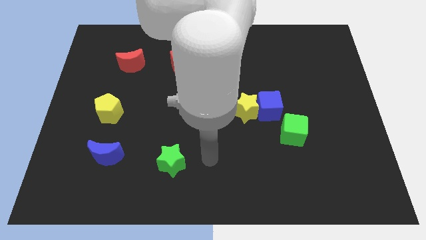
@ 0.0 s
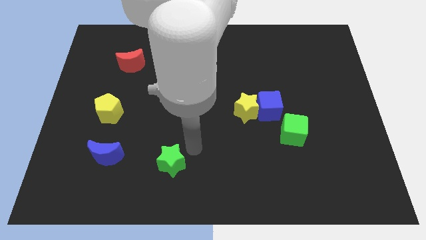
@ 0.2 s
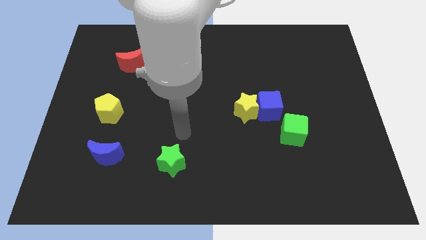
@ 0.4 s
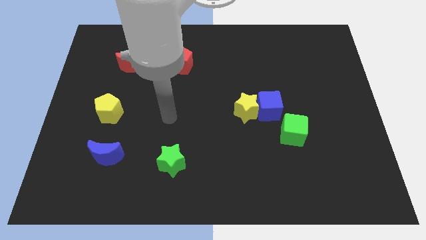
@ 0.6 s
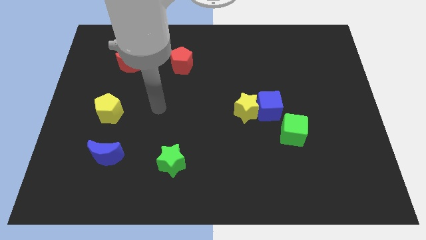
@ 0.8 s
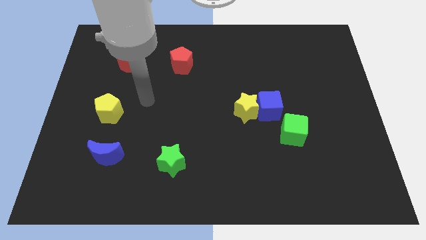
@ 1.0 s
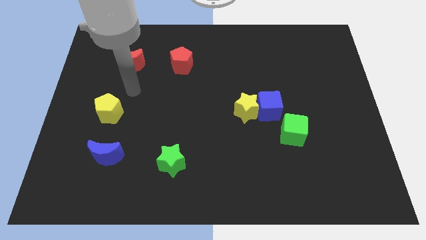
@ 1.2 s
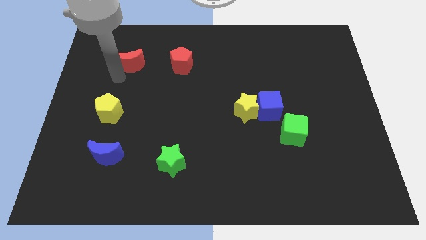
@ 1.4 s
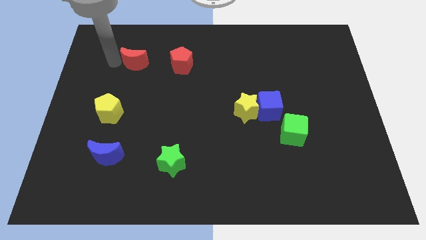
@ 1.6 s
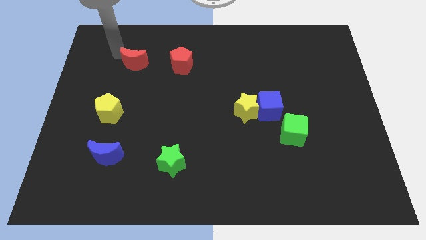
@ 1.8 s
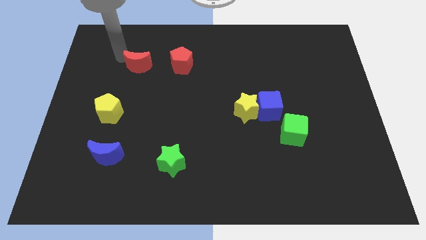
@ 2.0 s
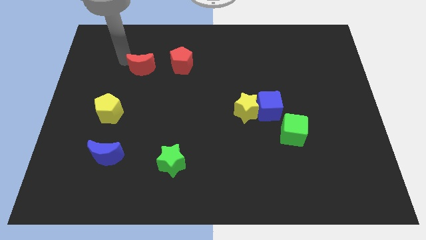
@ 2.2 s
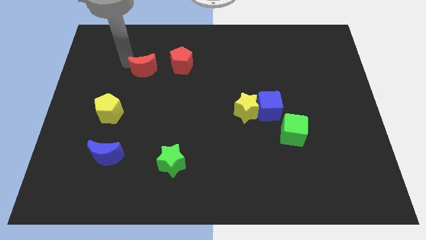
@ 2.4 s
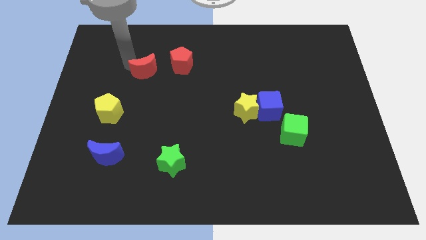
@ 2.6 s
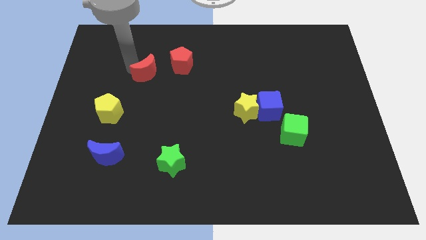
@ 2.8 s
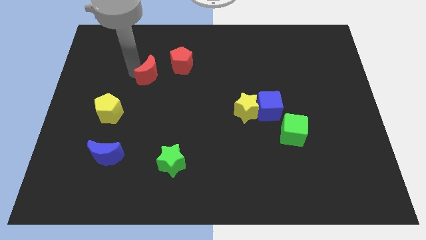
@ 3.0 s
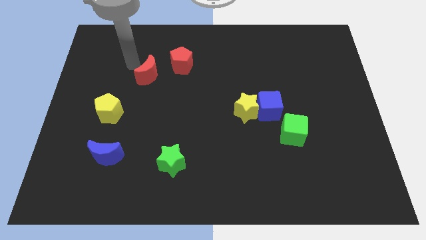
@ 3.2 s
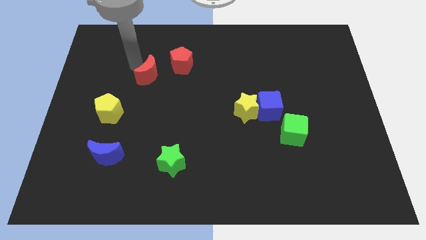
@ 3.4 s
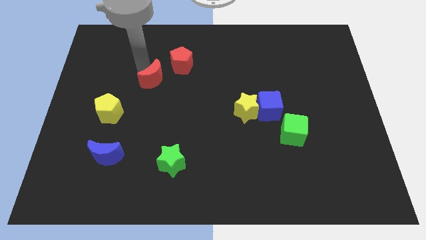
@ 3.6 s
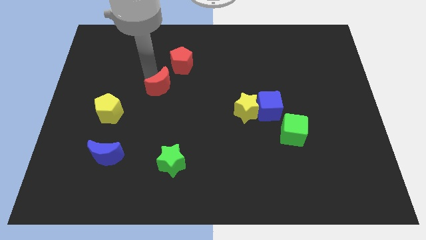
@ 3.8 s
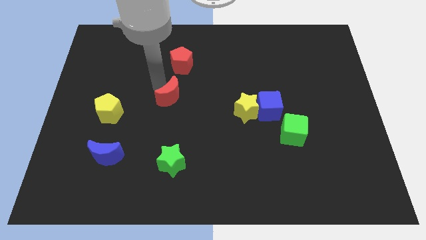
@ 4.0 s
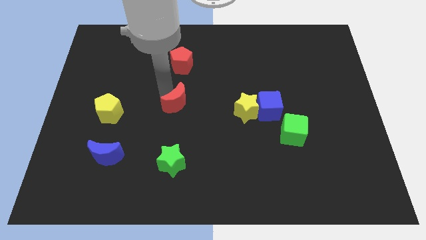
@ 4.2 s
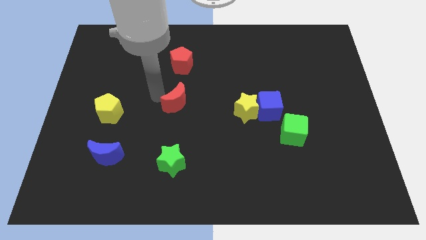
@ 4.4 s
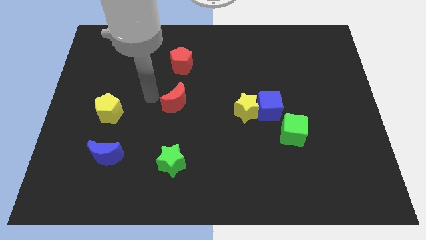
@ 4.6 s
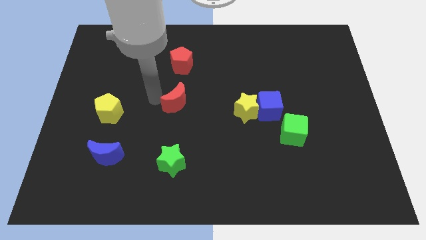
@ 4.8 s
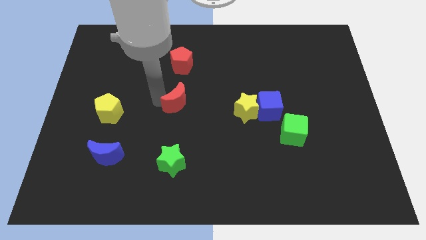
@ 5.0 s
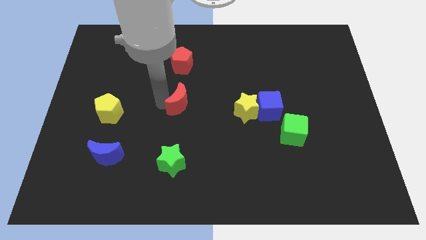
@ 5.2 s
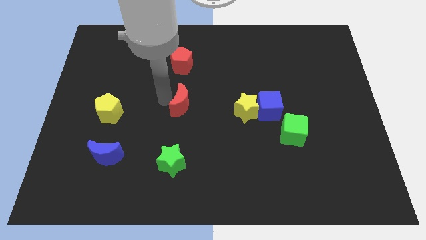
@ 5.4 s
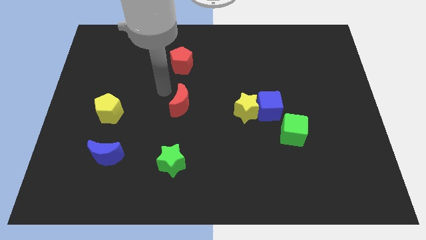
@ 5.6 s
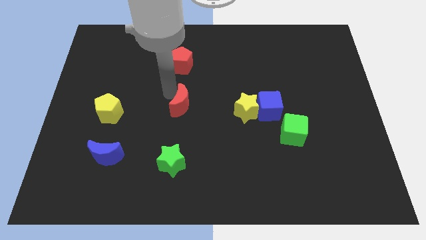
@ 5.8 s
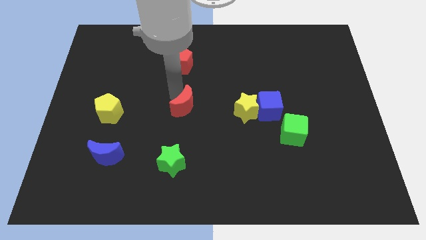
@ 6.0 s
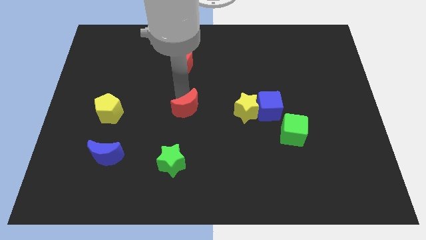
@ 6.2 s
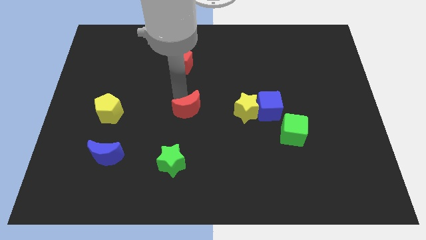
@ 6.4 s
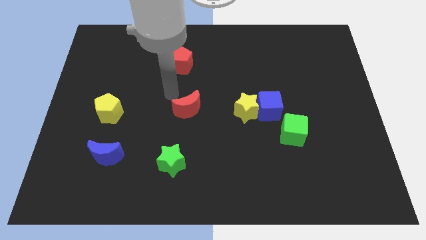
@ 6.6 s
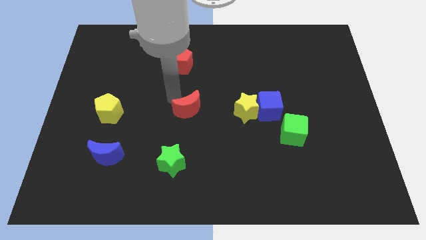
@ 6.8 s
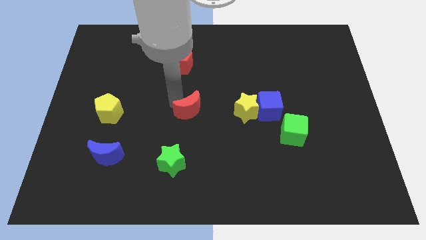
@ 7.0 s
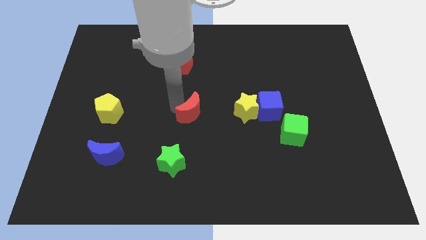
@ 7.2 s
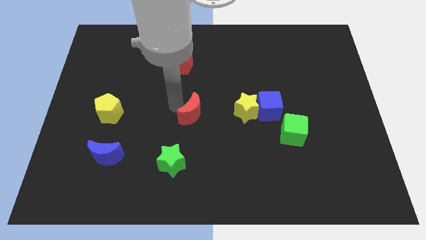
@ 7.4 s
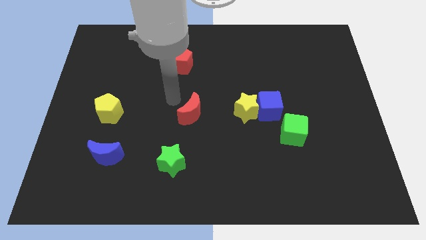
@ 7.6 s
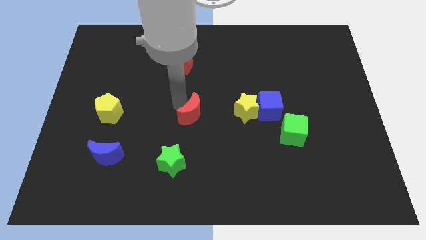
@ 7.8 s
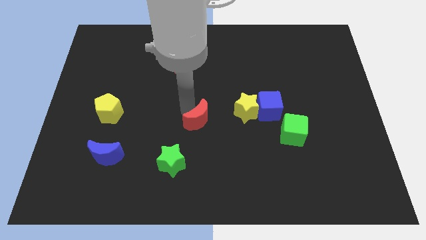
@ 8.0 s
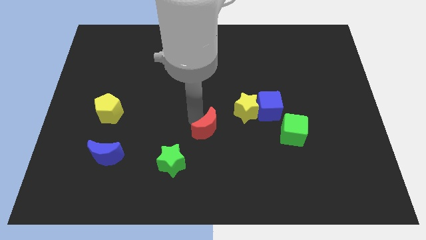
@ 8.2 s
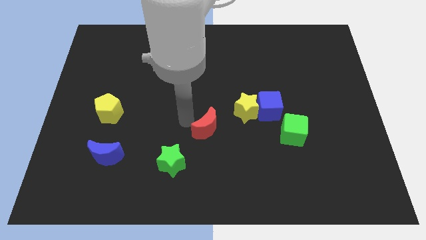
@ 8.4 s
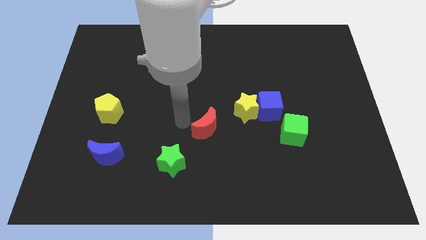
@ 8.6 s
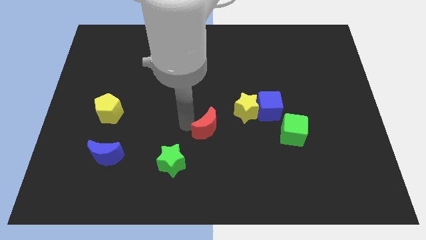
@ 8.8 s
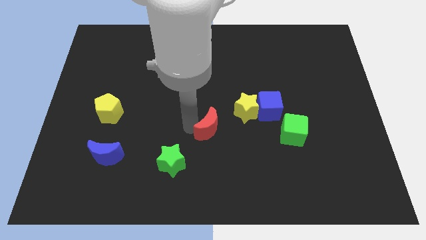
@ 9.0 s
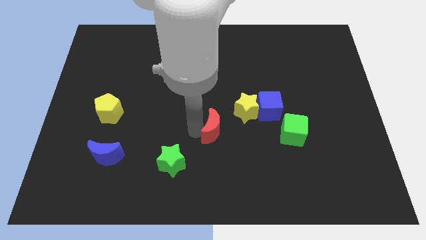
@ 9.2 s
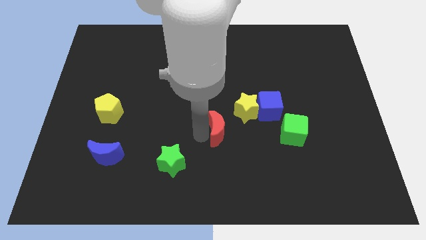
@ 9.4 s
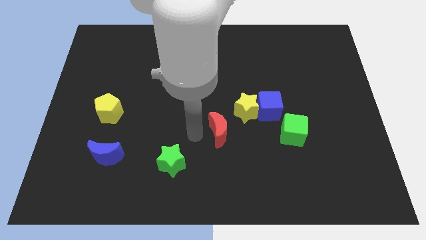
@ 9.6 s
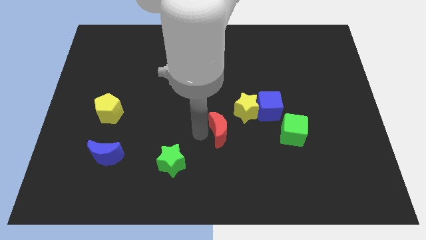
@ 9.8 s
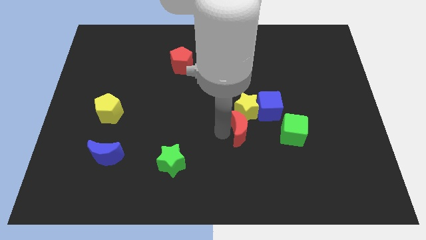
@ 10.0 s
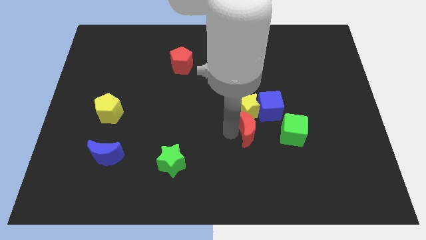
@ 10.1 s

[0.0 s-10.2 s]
put the red moon diagonally down and to the right of the yellow star

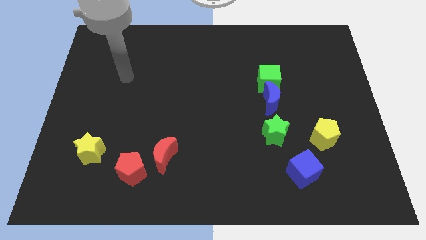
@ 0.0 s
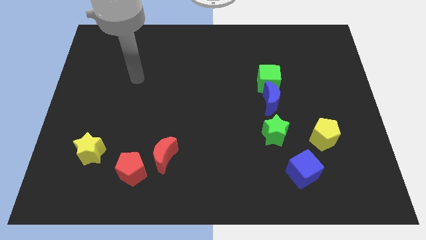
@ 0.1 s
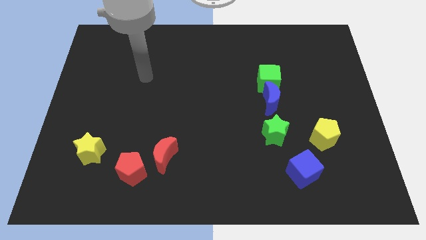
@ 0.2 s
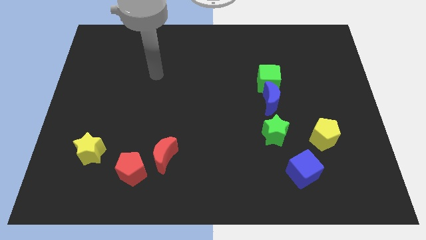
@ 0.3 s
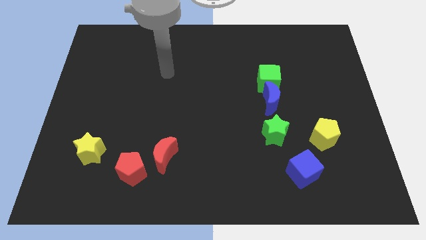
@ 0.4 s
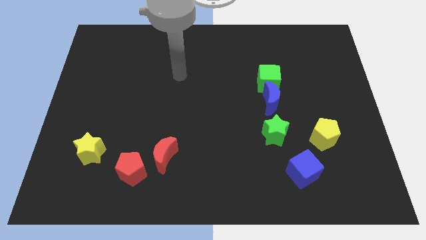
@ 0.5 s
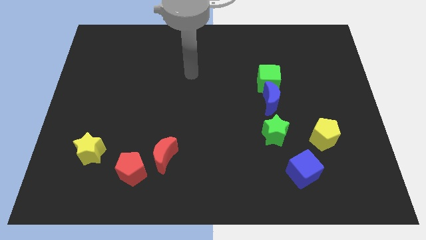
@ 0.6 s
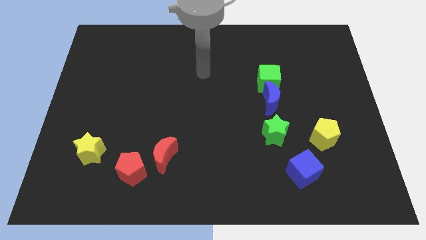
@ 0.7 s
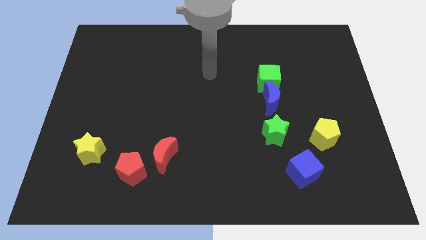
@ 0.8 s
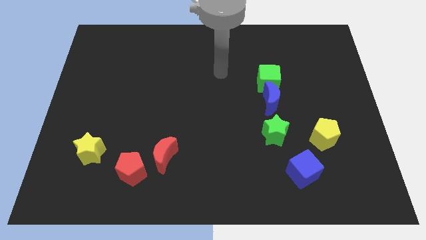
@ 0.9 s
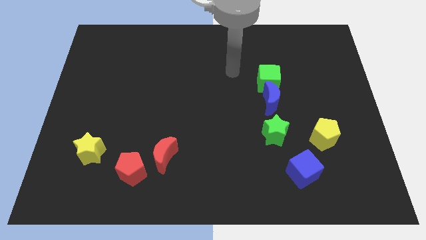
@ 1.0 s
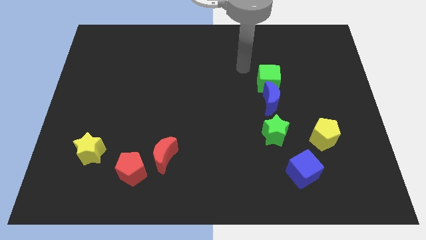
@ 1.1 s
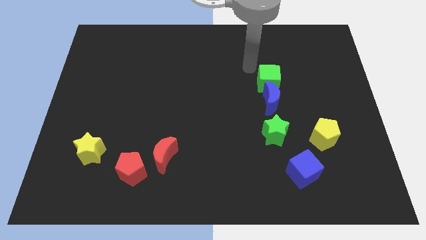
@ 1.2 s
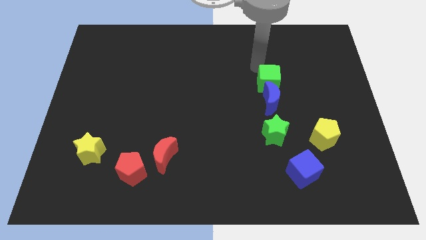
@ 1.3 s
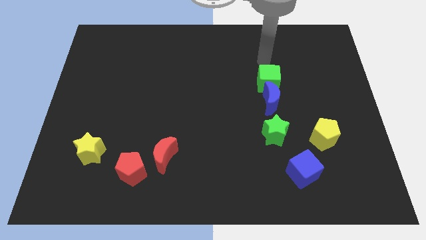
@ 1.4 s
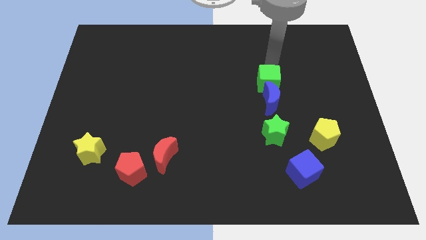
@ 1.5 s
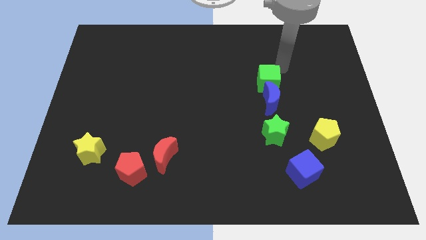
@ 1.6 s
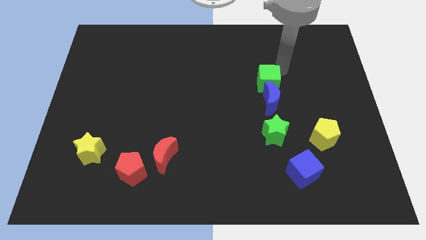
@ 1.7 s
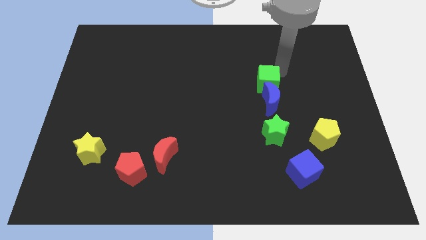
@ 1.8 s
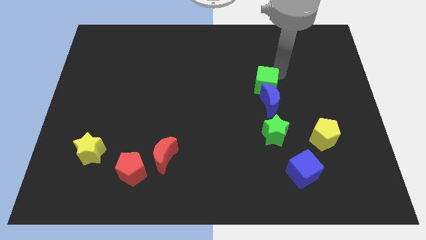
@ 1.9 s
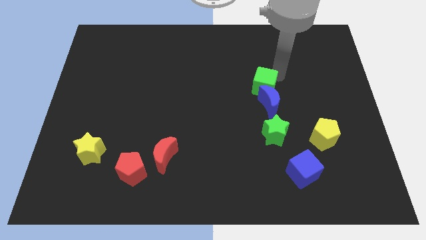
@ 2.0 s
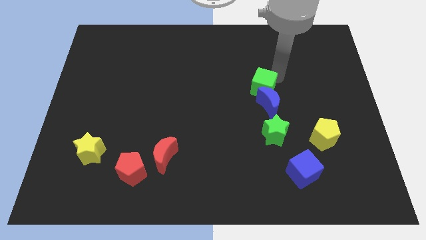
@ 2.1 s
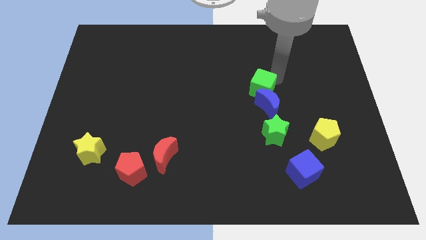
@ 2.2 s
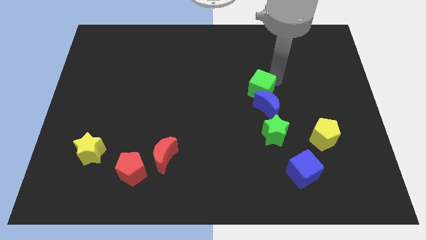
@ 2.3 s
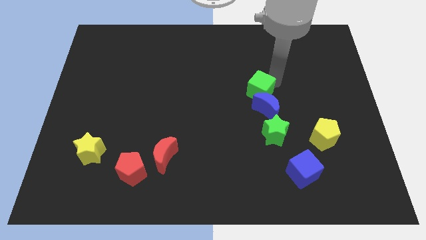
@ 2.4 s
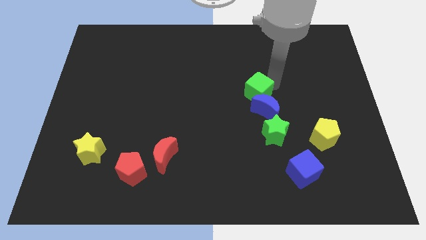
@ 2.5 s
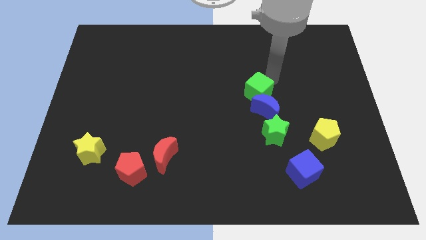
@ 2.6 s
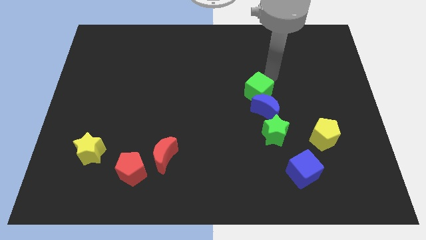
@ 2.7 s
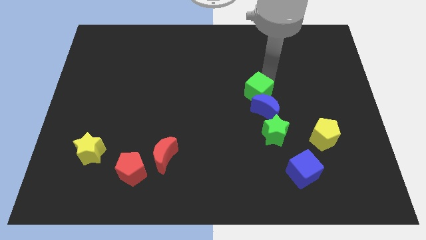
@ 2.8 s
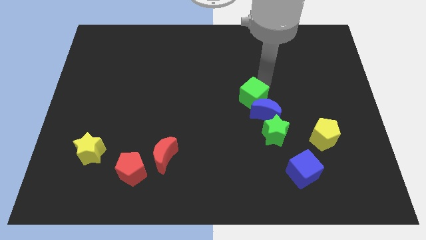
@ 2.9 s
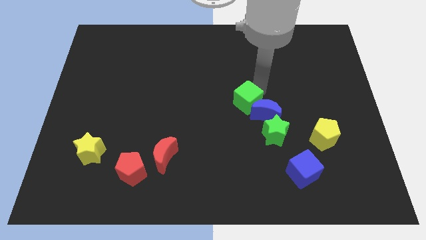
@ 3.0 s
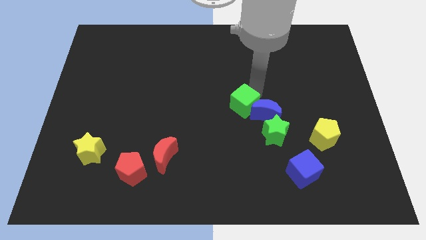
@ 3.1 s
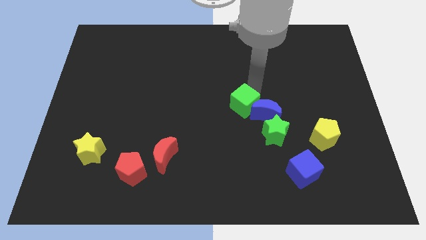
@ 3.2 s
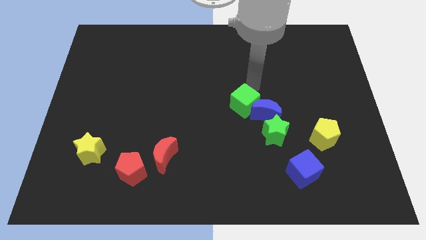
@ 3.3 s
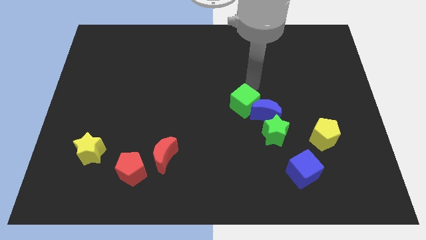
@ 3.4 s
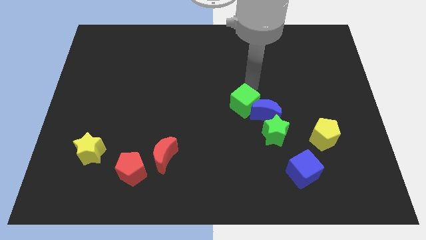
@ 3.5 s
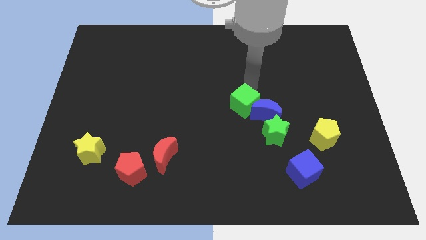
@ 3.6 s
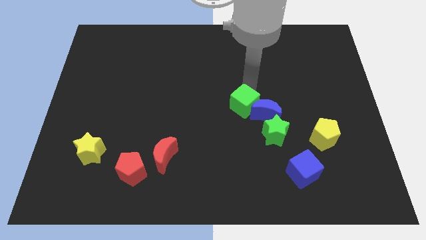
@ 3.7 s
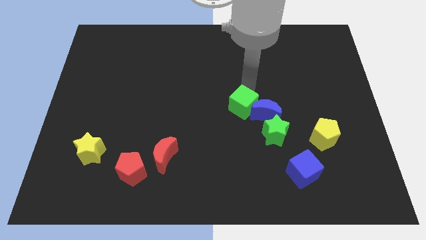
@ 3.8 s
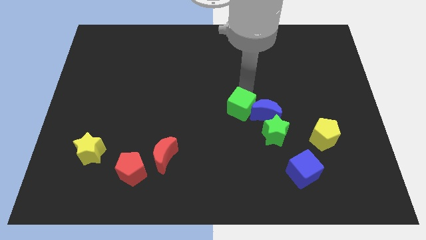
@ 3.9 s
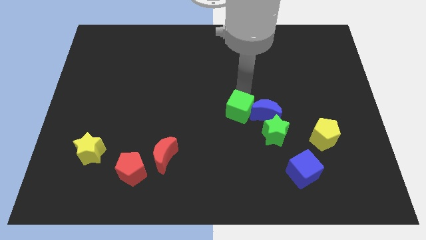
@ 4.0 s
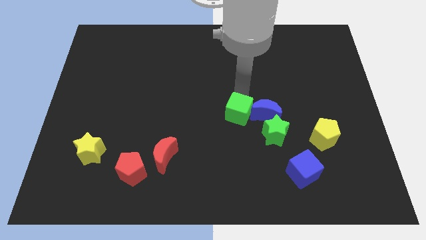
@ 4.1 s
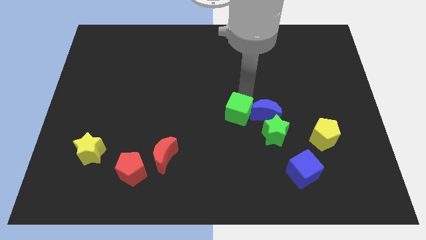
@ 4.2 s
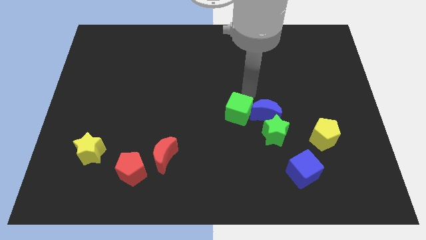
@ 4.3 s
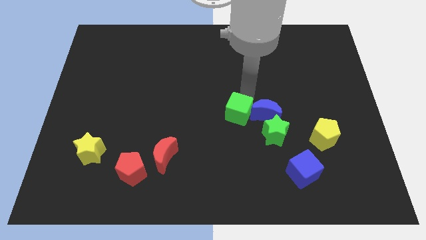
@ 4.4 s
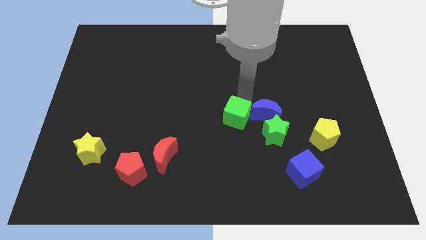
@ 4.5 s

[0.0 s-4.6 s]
push the green cube left of the green star
